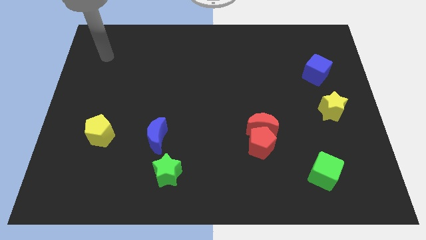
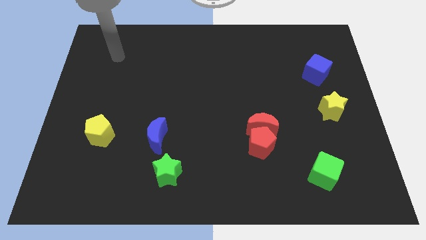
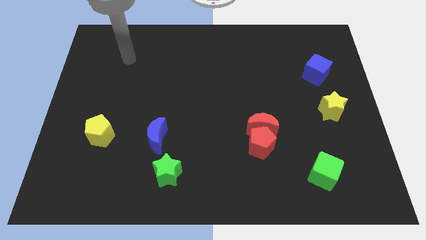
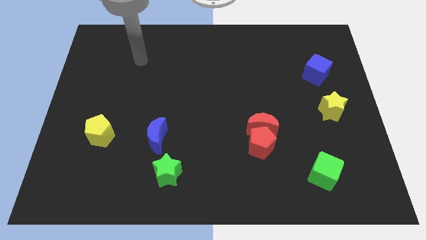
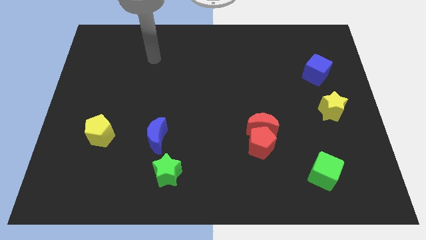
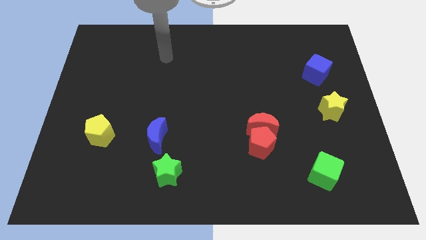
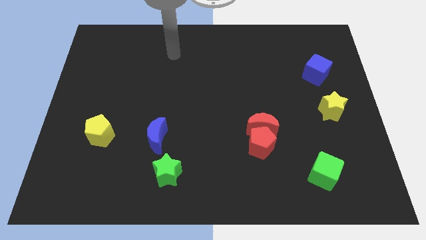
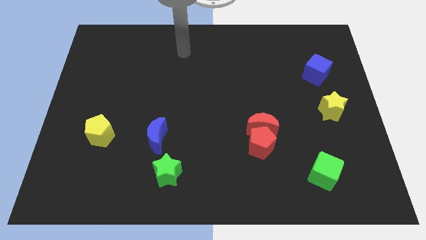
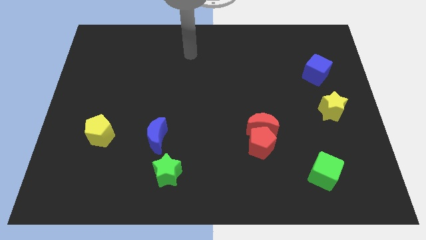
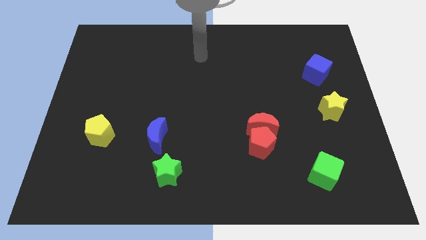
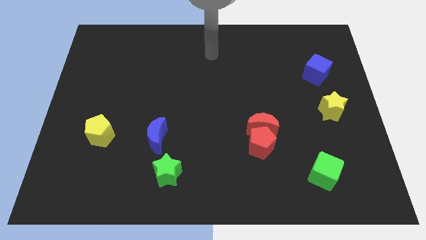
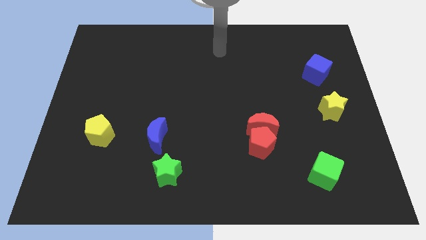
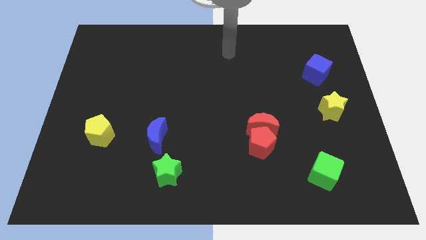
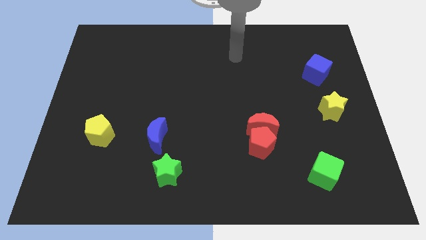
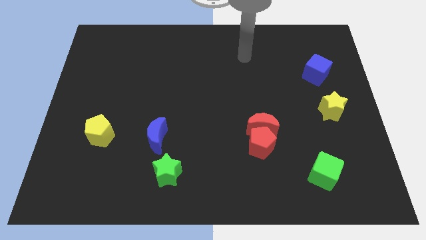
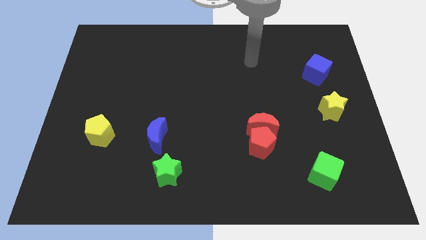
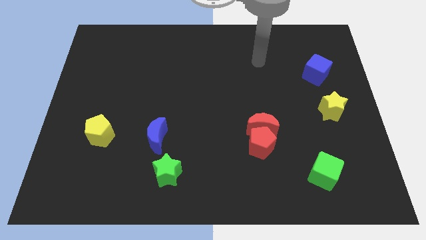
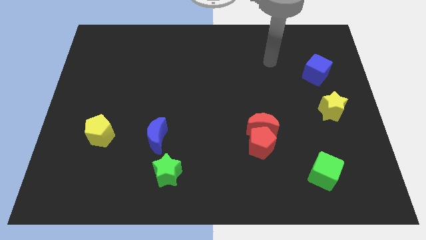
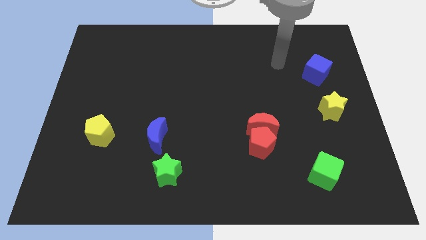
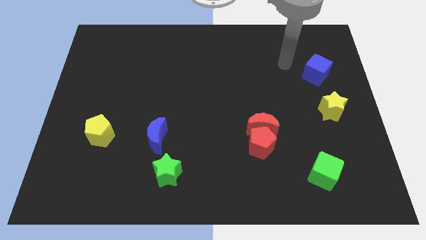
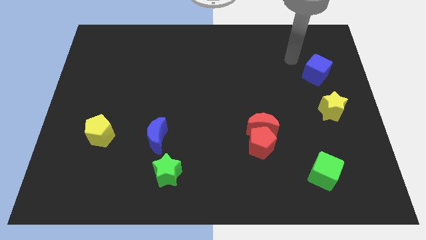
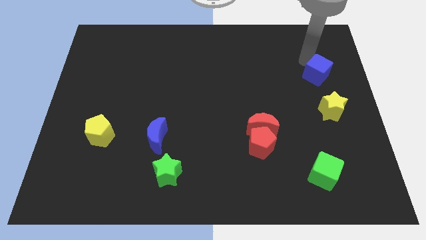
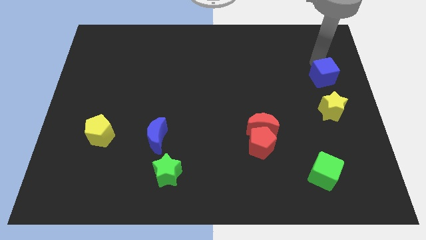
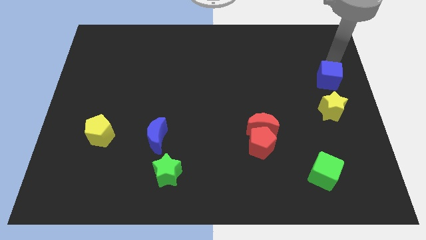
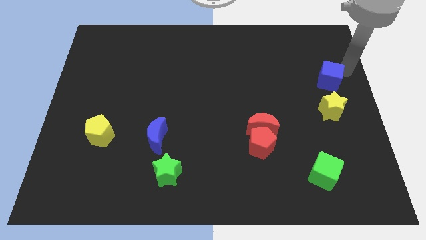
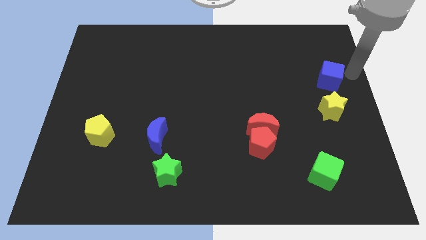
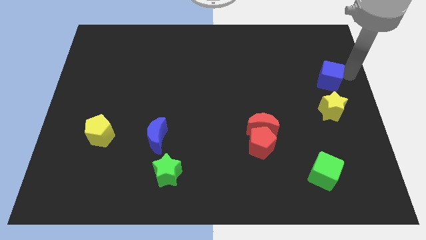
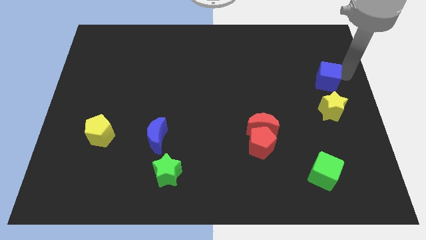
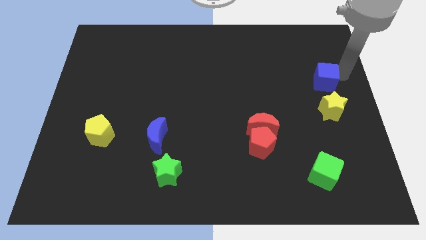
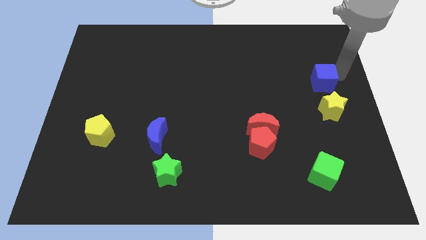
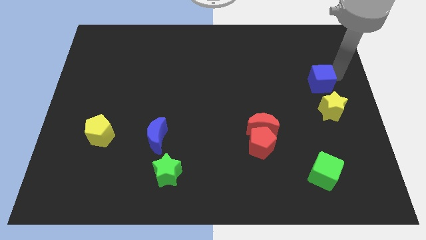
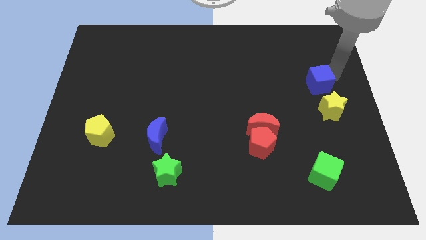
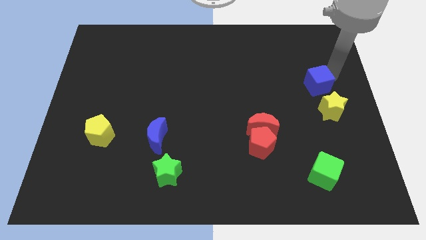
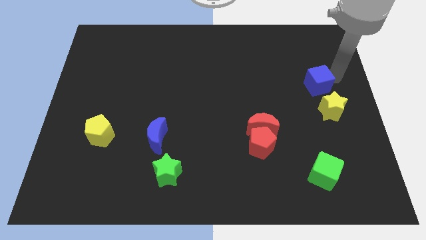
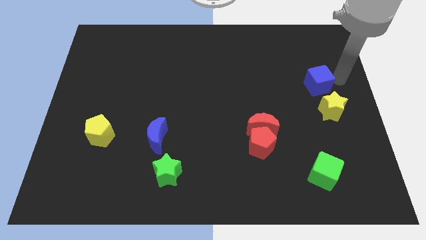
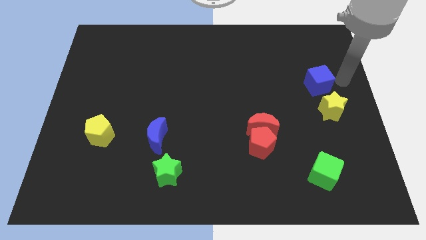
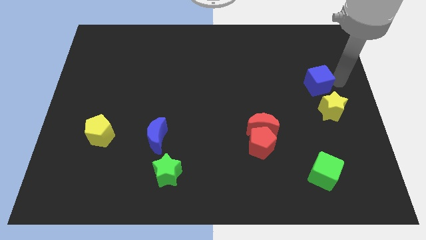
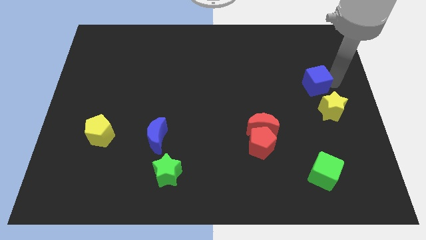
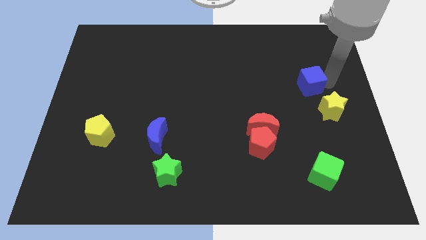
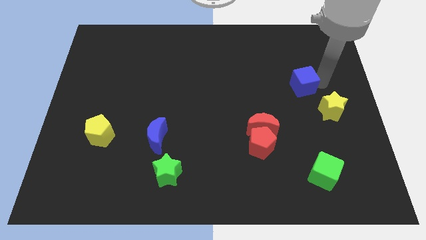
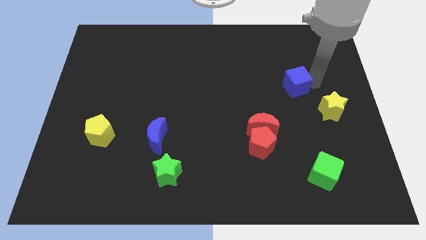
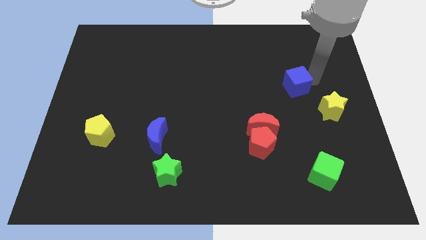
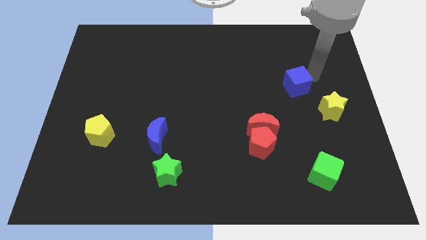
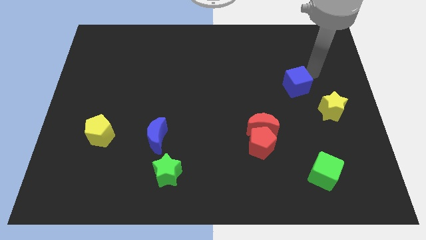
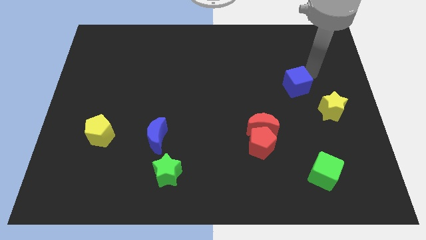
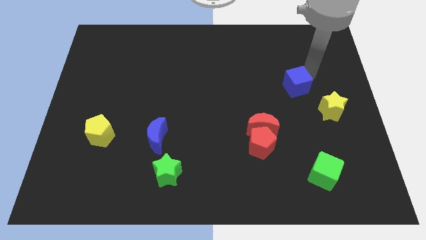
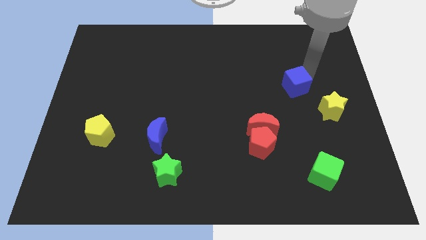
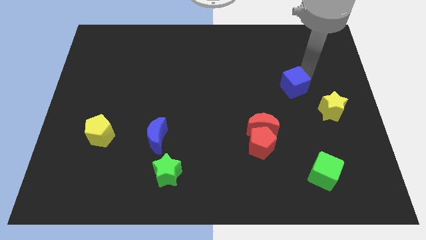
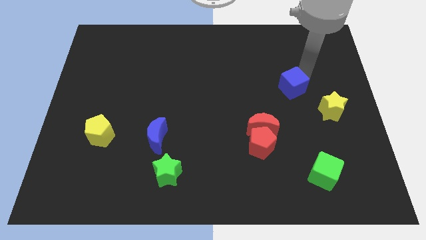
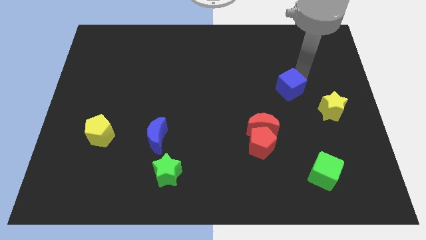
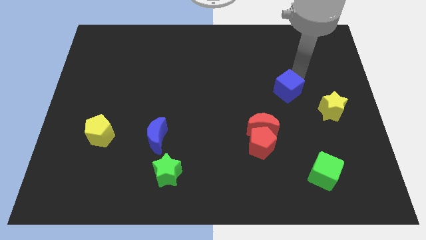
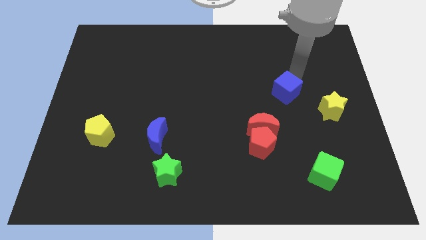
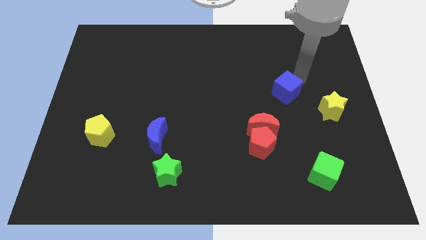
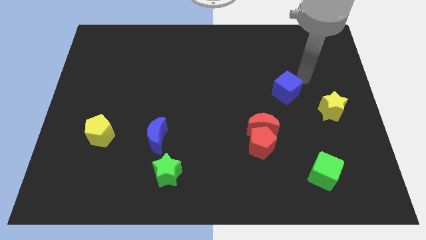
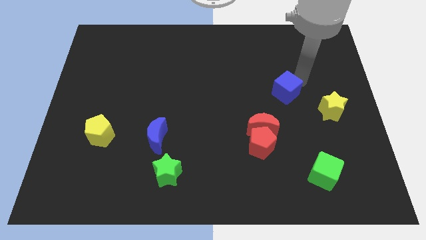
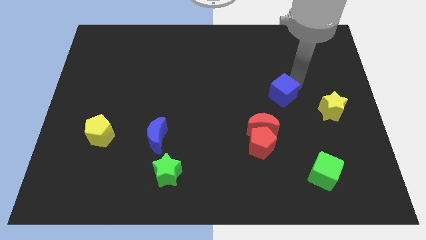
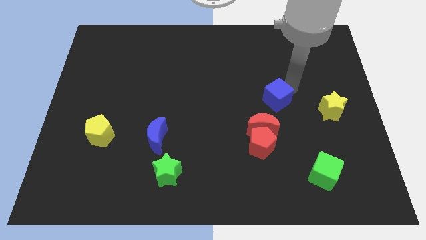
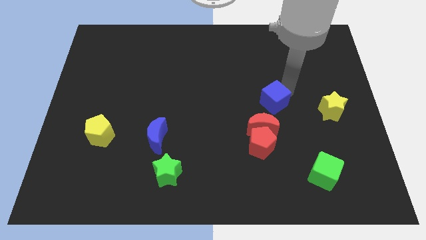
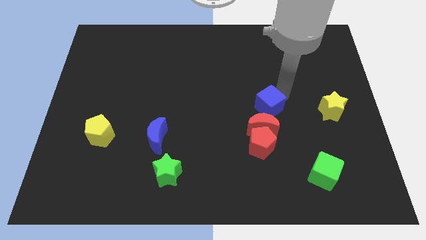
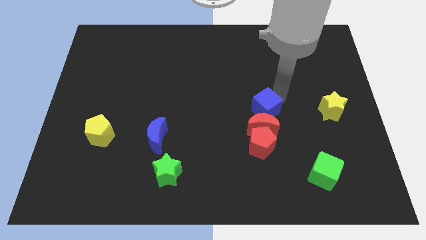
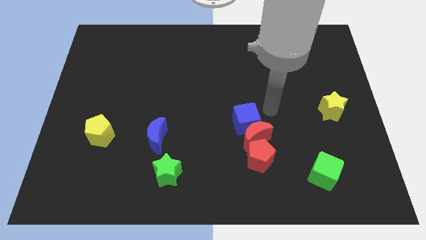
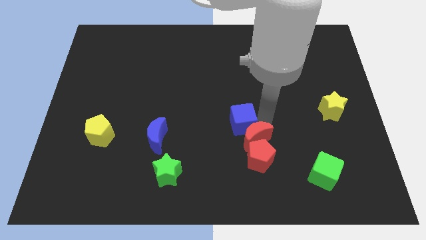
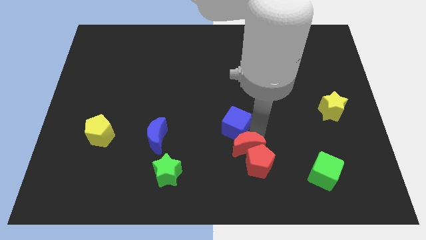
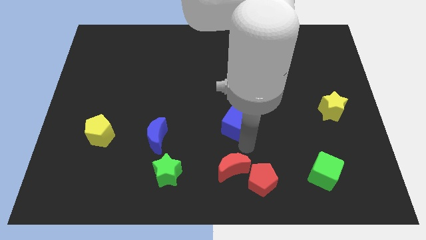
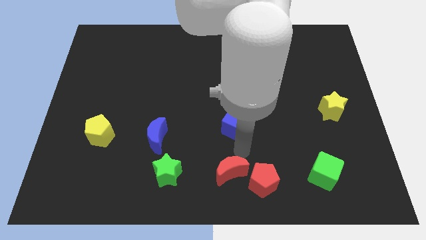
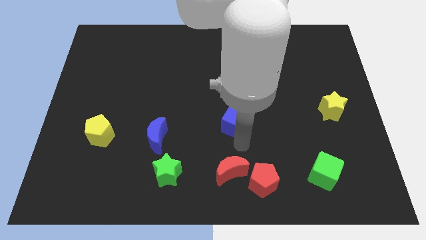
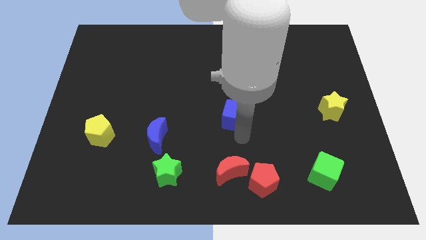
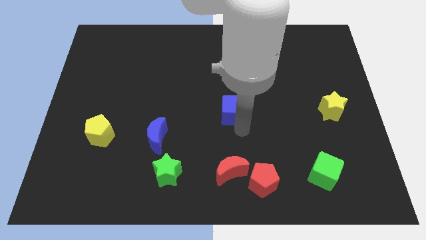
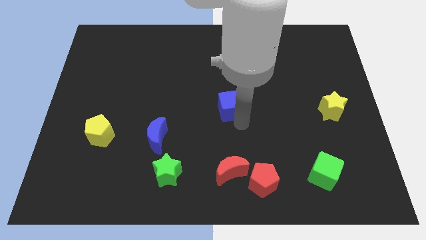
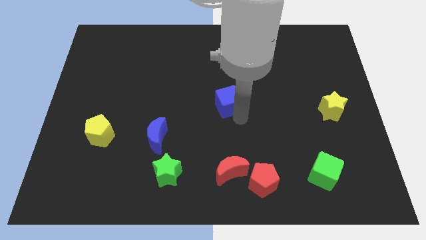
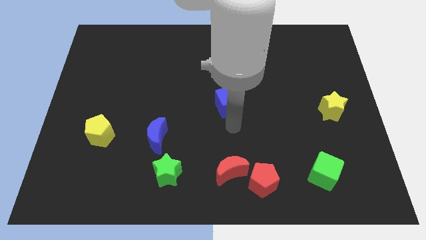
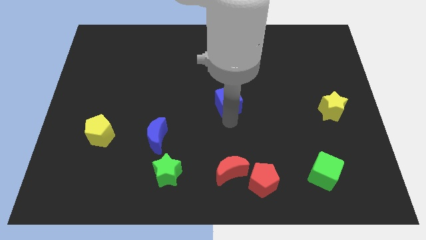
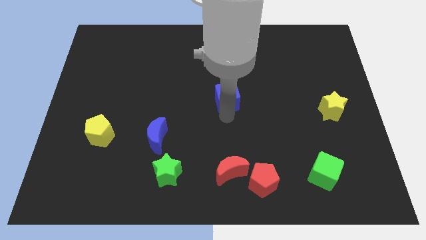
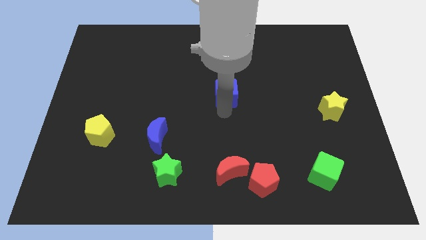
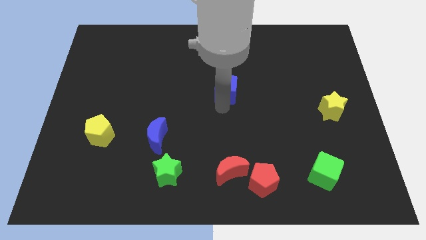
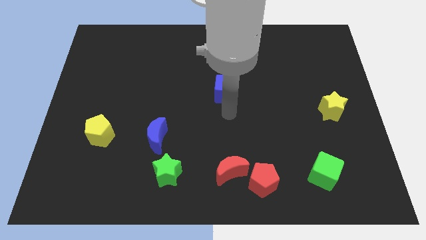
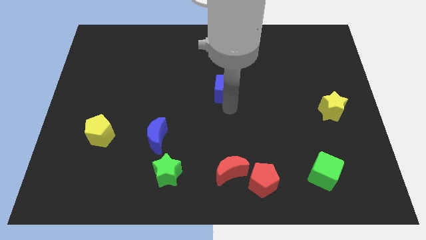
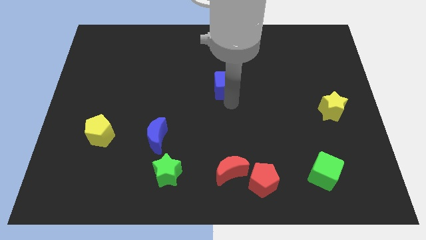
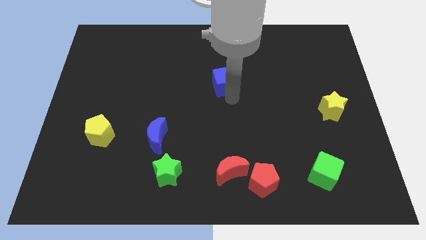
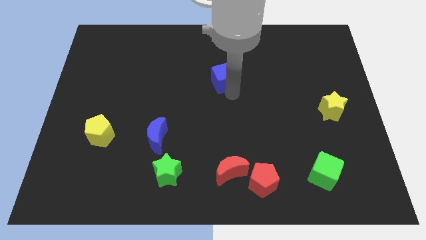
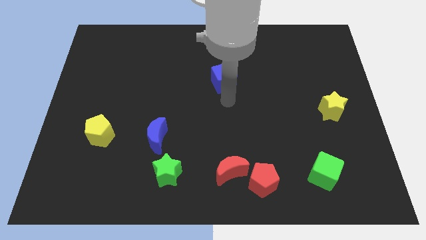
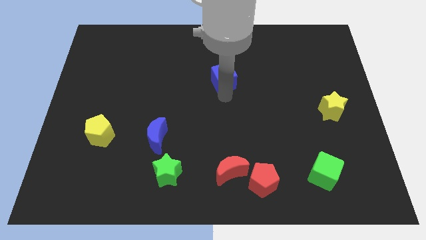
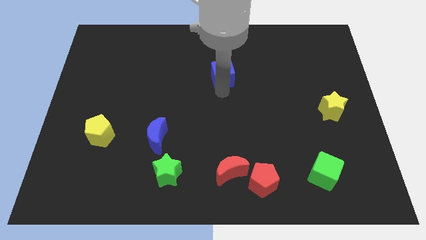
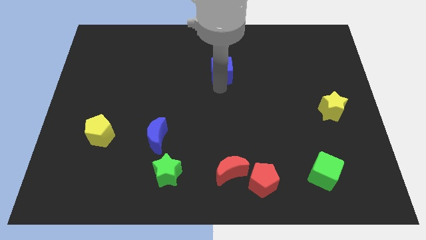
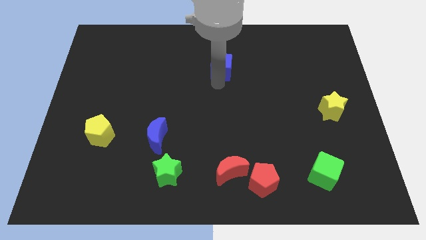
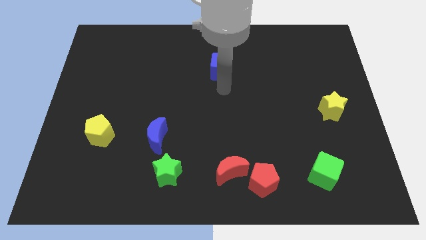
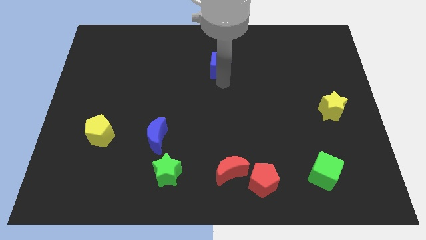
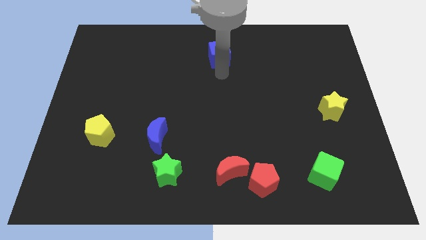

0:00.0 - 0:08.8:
push the blue cube to the top
